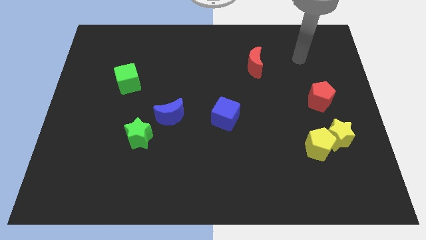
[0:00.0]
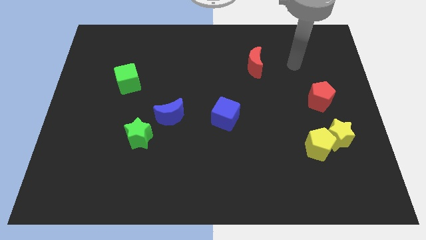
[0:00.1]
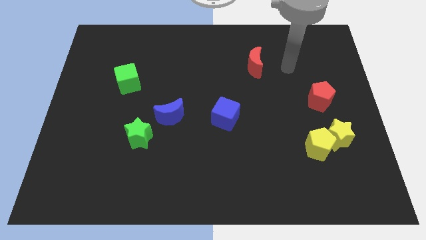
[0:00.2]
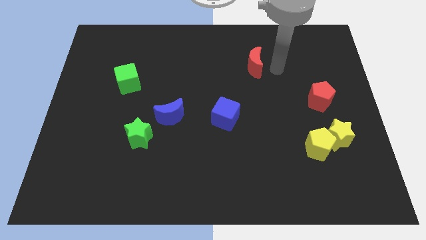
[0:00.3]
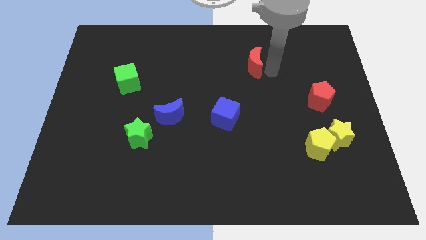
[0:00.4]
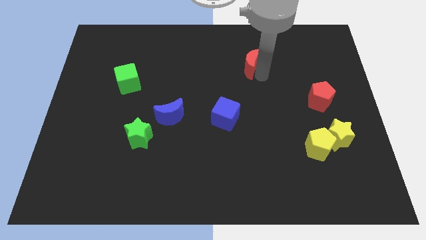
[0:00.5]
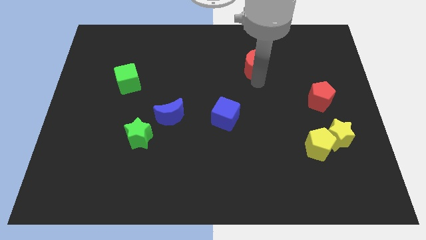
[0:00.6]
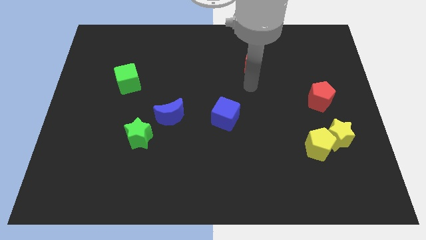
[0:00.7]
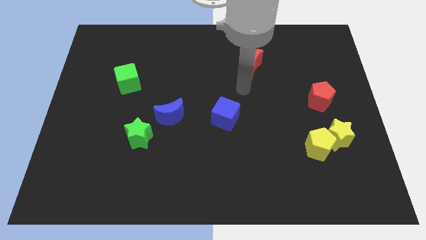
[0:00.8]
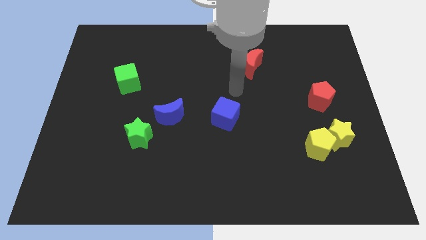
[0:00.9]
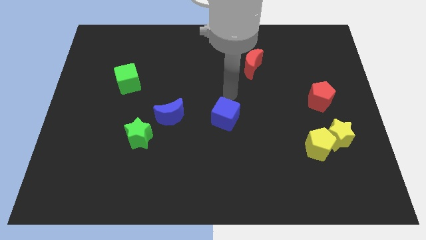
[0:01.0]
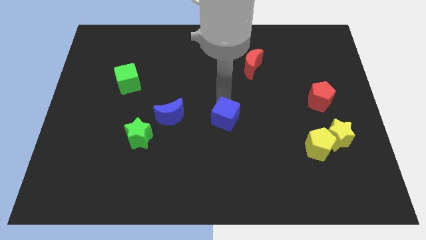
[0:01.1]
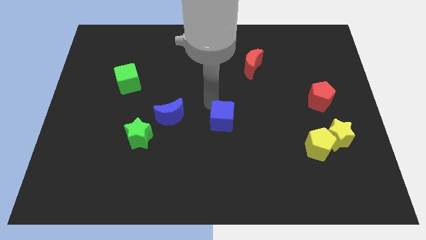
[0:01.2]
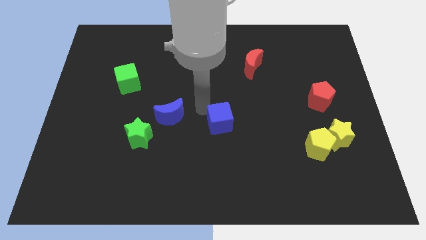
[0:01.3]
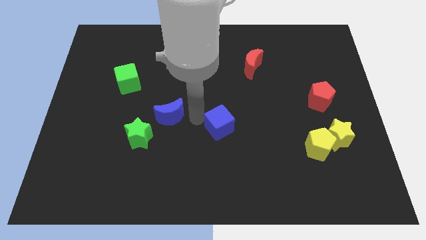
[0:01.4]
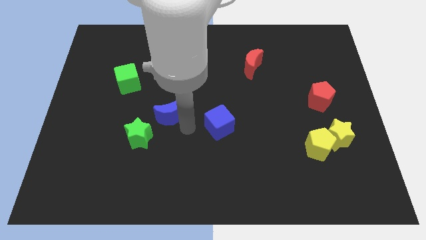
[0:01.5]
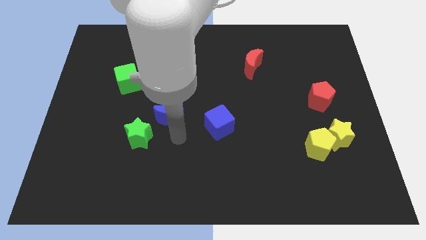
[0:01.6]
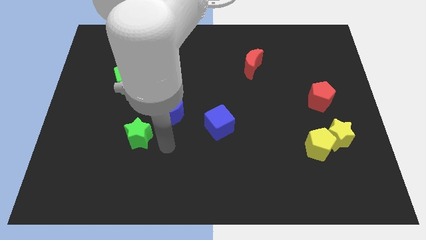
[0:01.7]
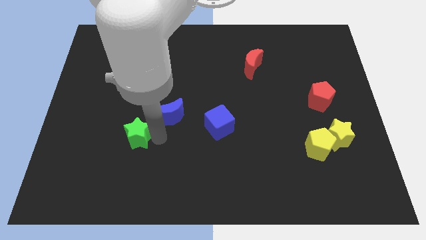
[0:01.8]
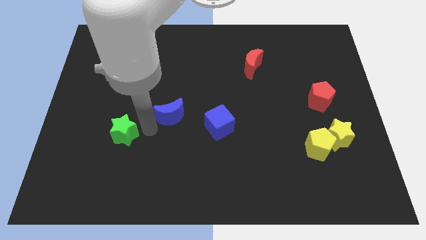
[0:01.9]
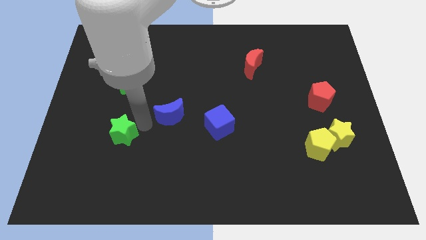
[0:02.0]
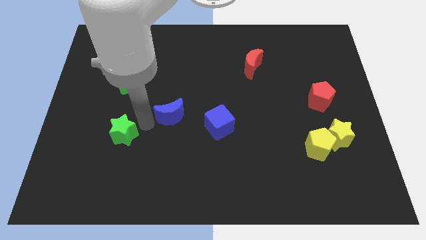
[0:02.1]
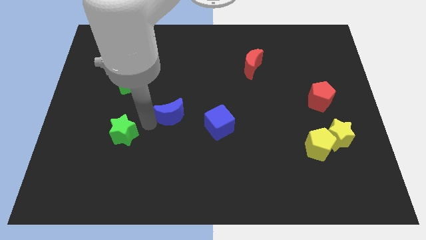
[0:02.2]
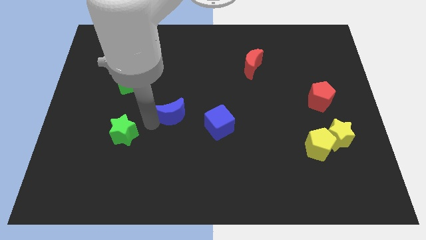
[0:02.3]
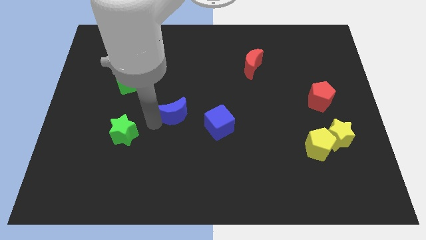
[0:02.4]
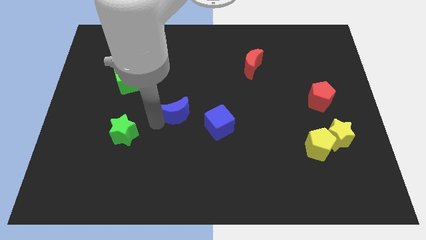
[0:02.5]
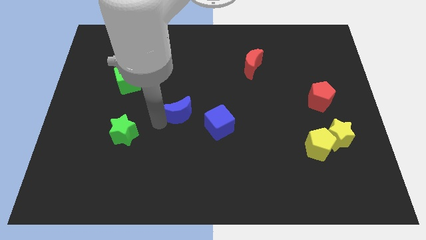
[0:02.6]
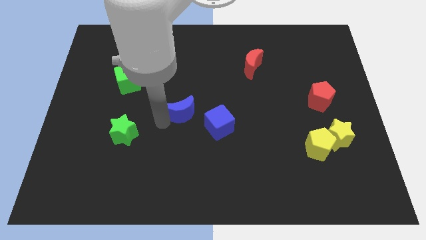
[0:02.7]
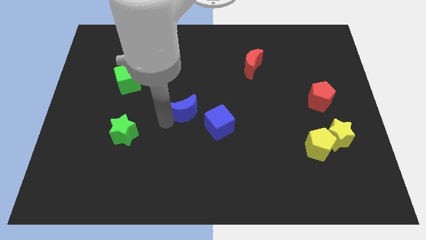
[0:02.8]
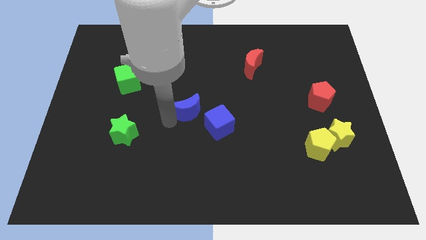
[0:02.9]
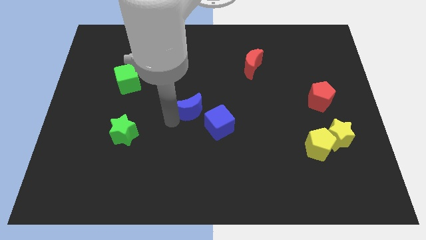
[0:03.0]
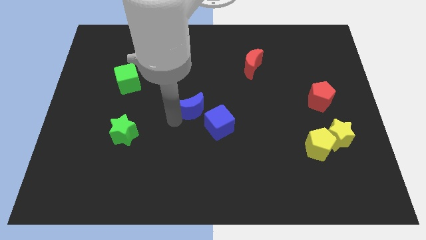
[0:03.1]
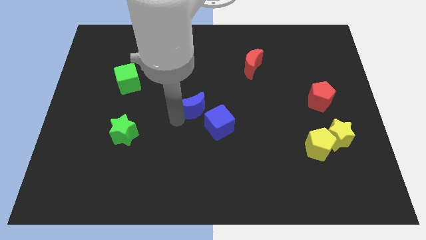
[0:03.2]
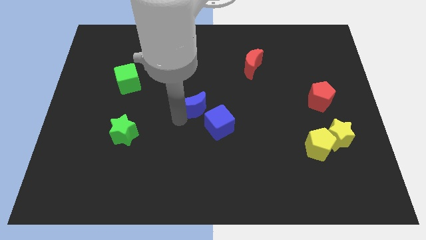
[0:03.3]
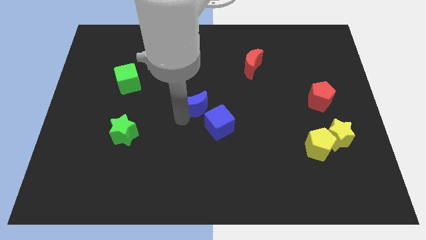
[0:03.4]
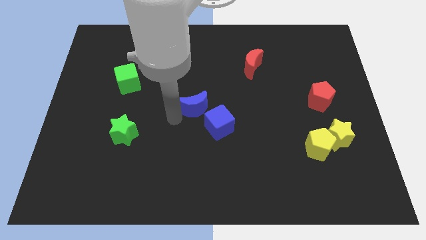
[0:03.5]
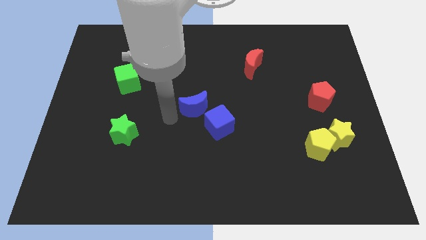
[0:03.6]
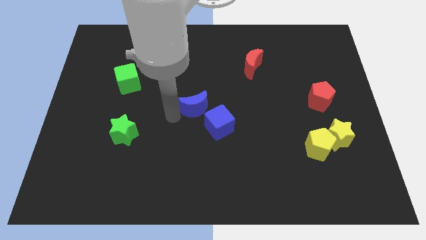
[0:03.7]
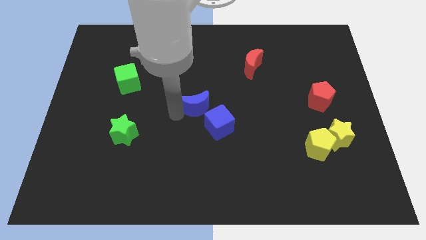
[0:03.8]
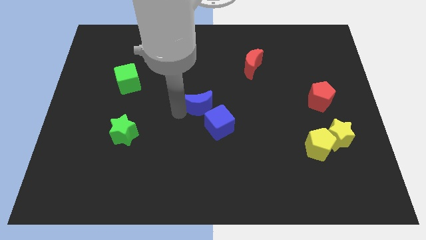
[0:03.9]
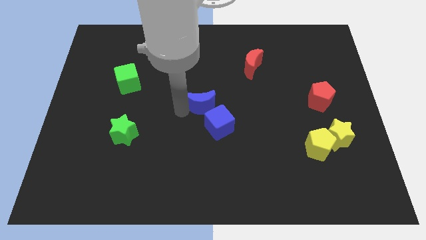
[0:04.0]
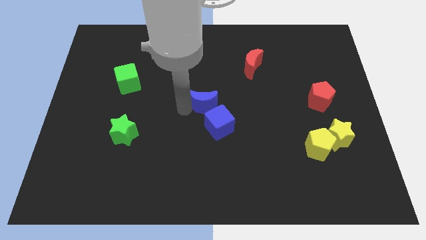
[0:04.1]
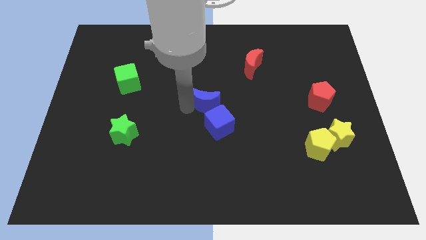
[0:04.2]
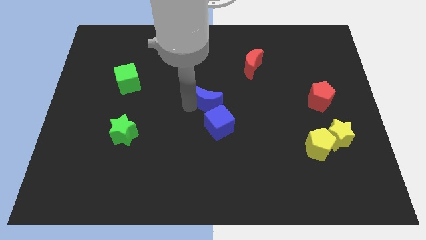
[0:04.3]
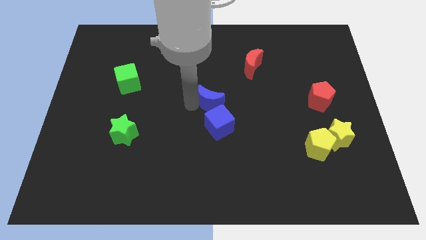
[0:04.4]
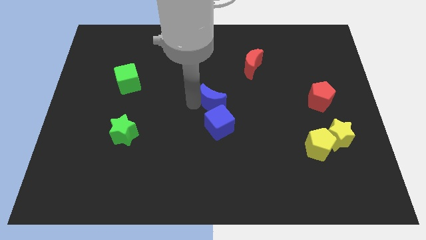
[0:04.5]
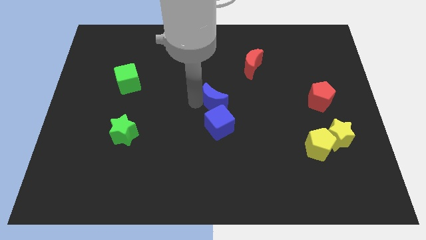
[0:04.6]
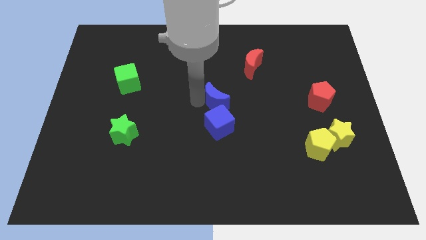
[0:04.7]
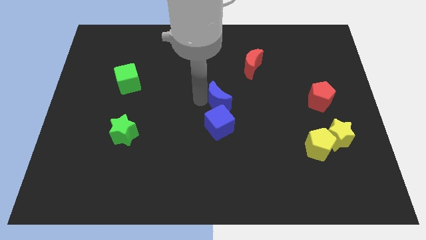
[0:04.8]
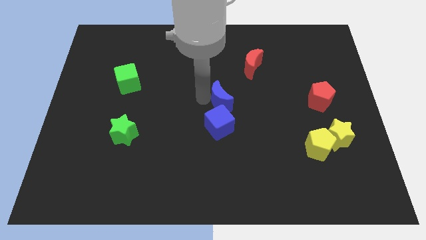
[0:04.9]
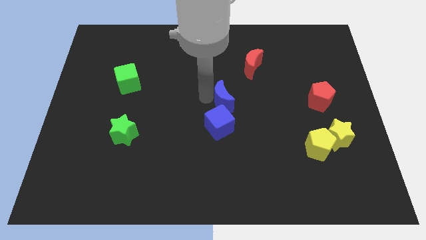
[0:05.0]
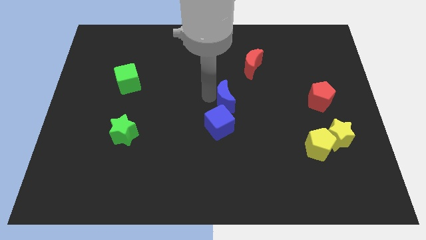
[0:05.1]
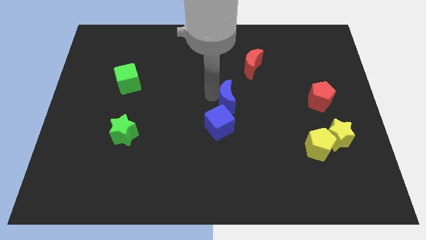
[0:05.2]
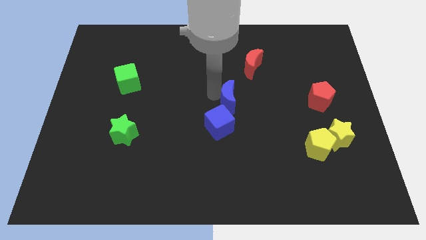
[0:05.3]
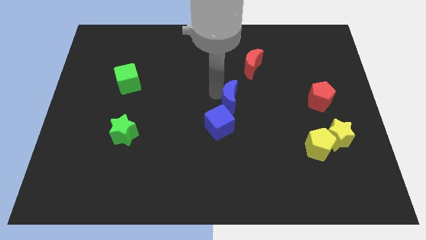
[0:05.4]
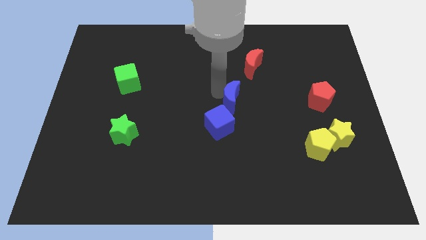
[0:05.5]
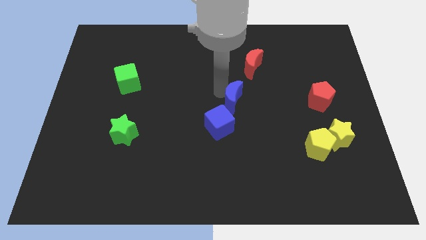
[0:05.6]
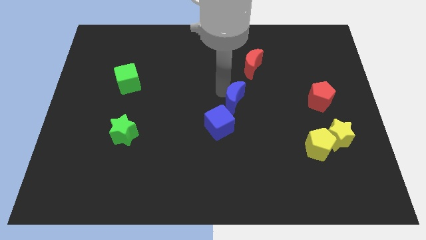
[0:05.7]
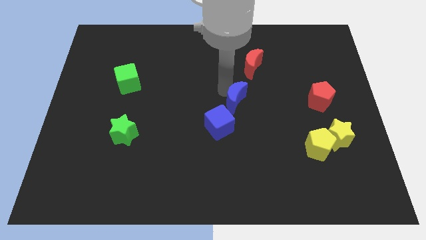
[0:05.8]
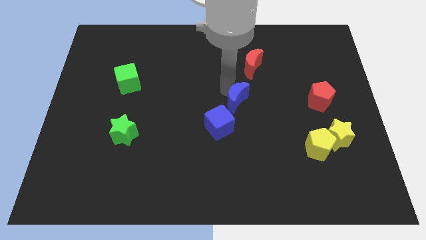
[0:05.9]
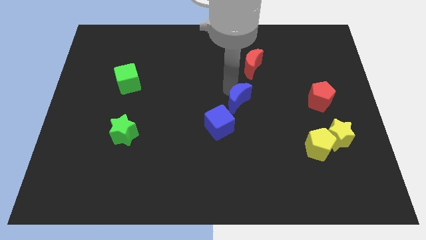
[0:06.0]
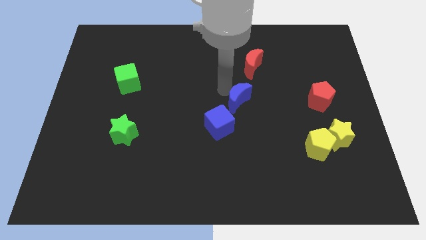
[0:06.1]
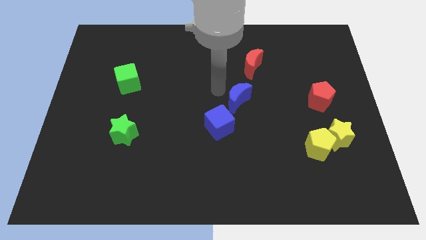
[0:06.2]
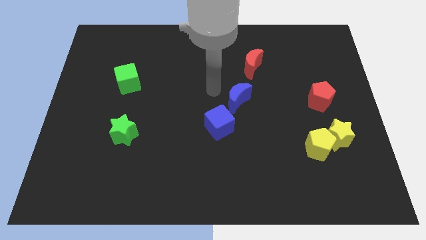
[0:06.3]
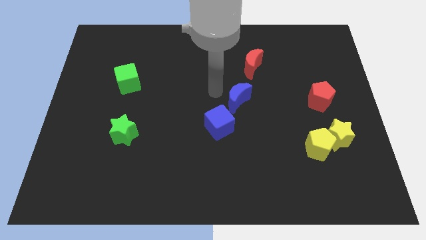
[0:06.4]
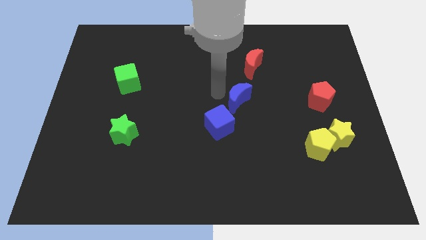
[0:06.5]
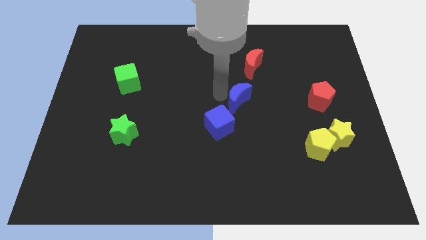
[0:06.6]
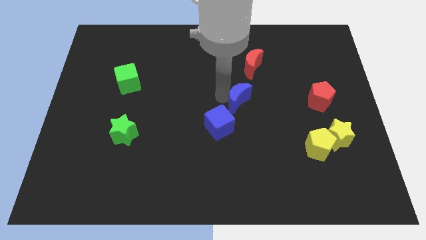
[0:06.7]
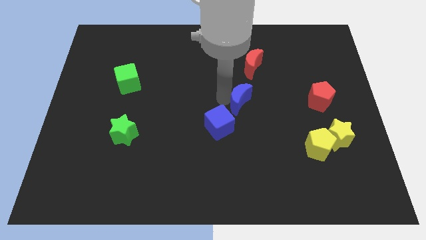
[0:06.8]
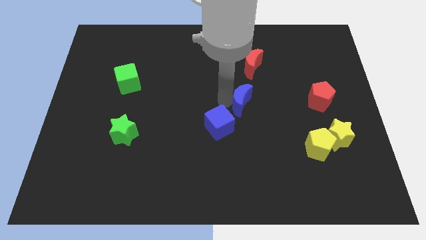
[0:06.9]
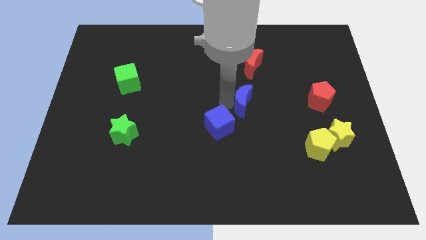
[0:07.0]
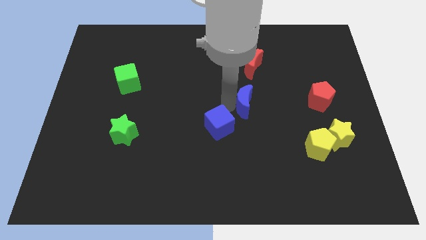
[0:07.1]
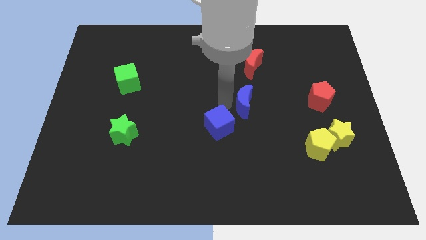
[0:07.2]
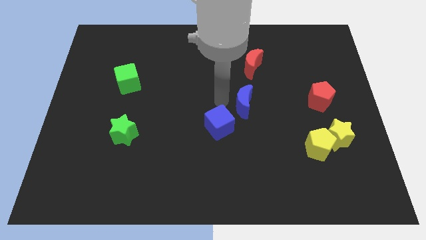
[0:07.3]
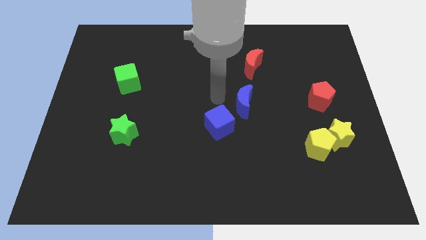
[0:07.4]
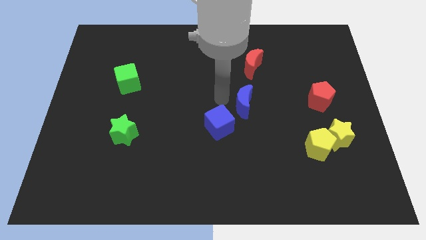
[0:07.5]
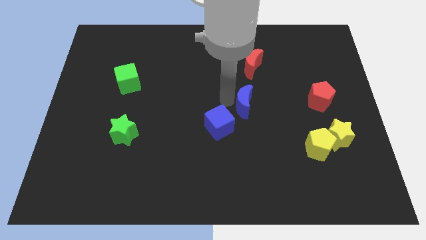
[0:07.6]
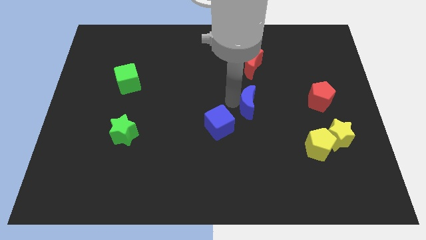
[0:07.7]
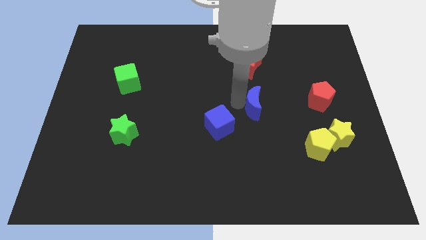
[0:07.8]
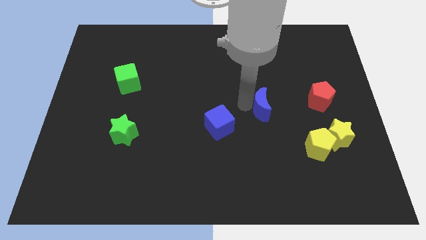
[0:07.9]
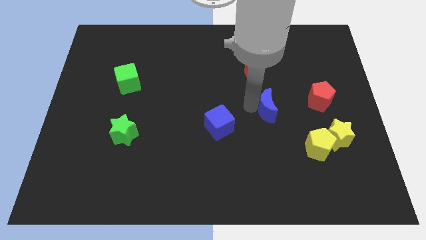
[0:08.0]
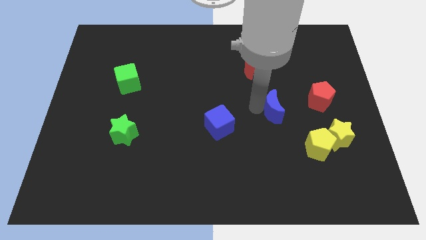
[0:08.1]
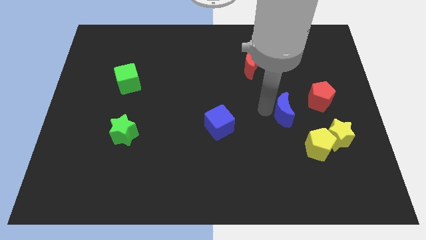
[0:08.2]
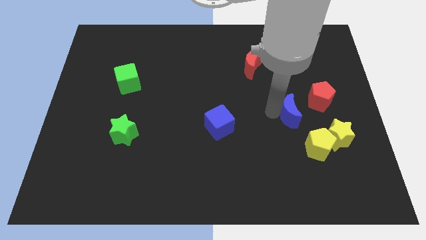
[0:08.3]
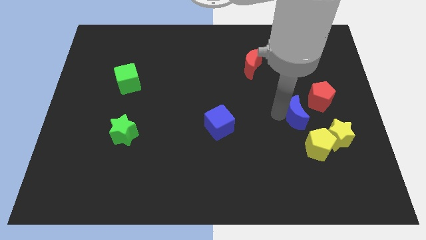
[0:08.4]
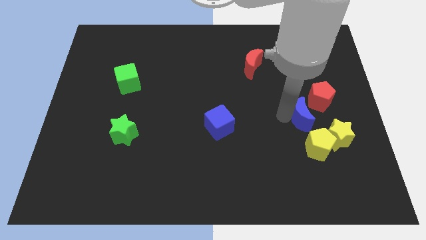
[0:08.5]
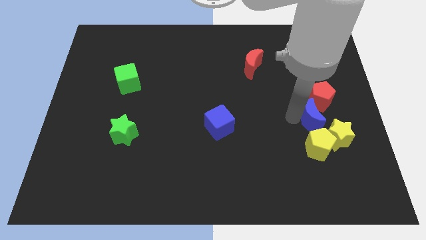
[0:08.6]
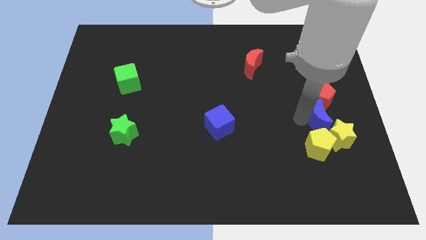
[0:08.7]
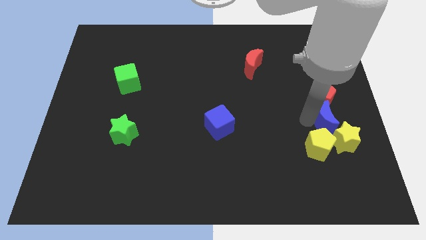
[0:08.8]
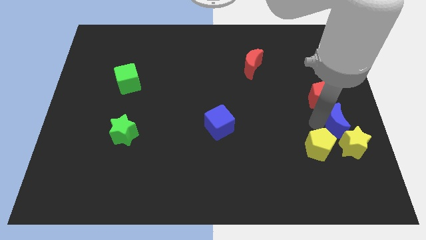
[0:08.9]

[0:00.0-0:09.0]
slide the blue moon to the center right
